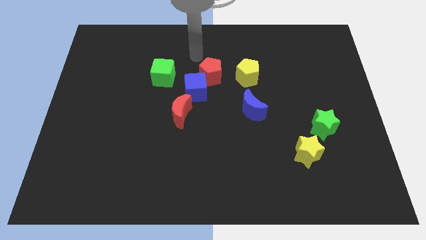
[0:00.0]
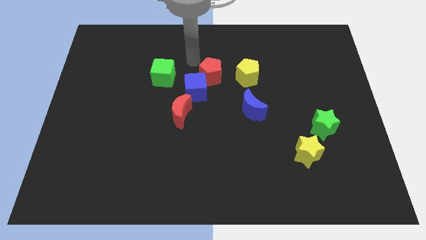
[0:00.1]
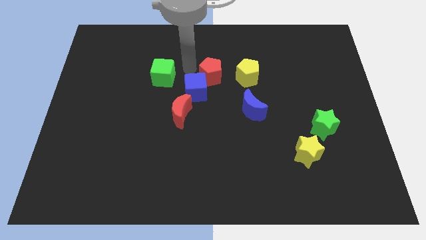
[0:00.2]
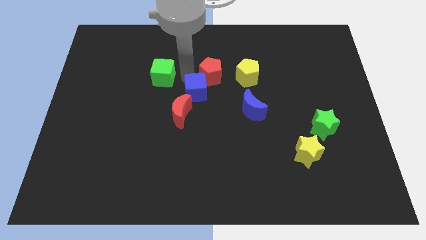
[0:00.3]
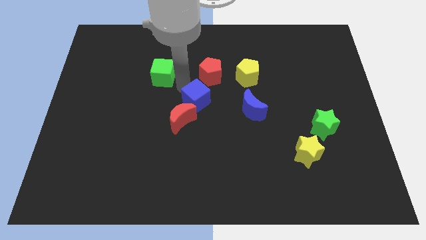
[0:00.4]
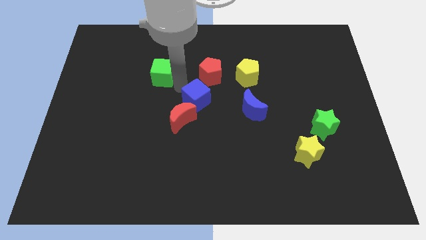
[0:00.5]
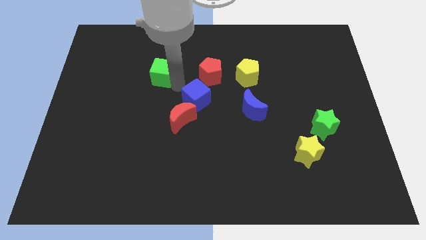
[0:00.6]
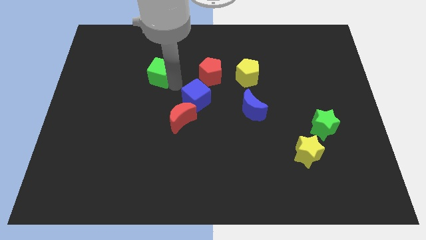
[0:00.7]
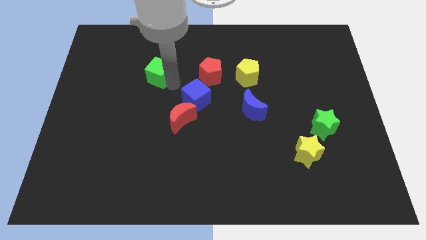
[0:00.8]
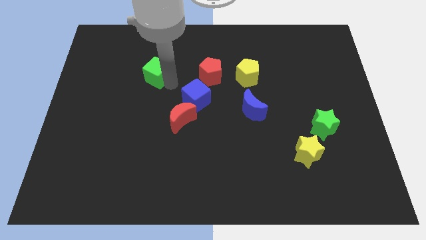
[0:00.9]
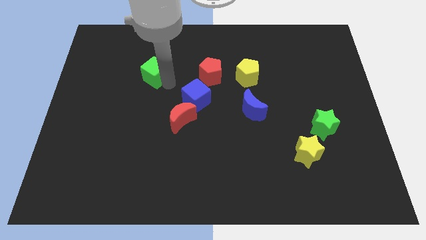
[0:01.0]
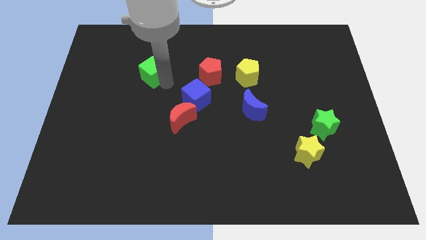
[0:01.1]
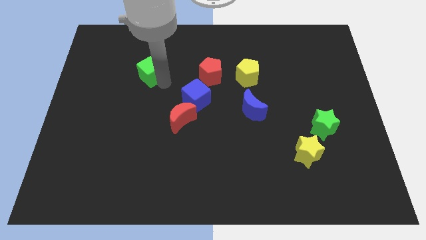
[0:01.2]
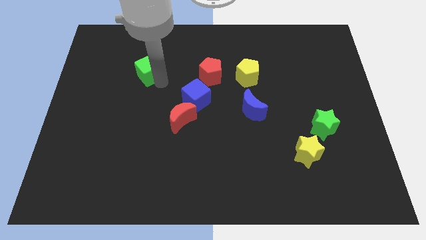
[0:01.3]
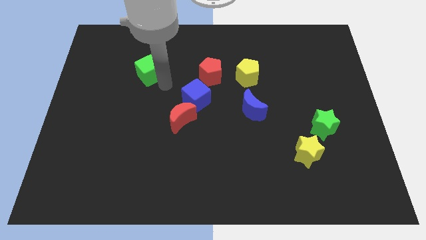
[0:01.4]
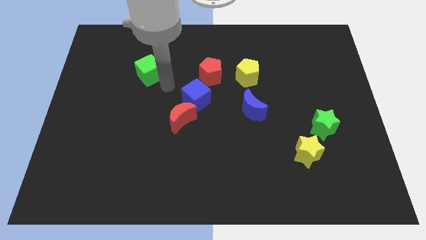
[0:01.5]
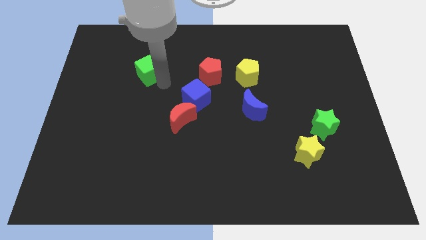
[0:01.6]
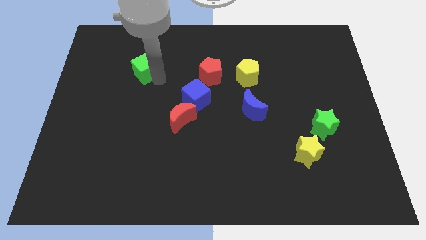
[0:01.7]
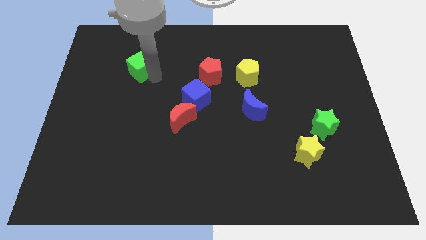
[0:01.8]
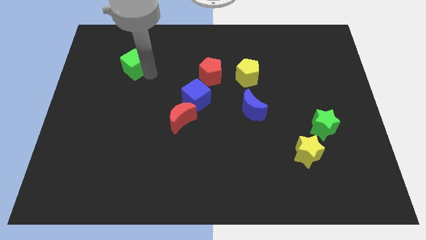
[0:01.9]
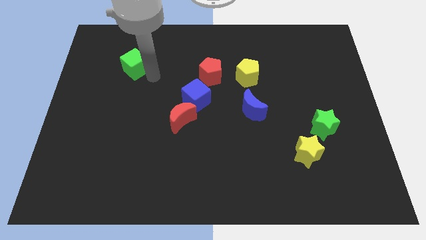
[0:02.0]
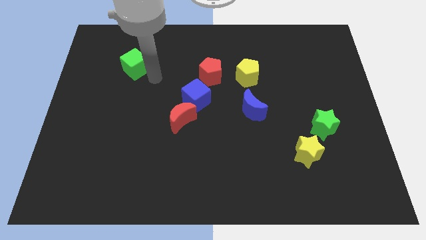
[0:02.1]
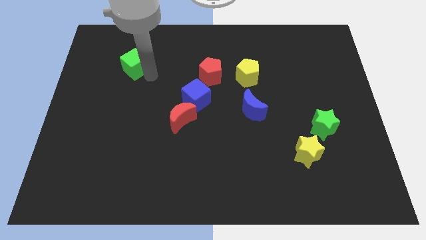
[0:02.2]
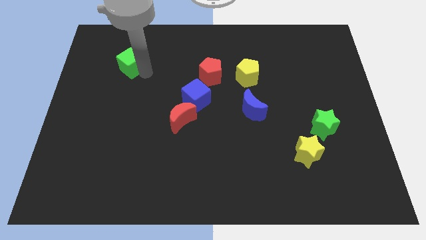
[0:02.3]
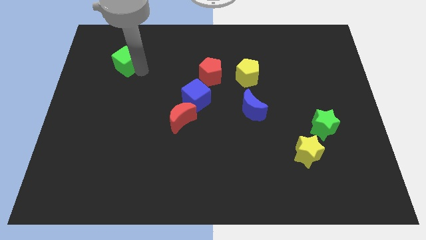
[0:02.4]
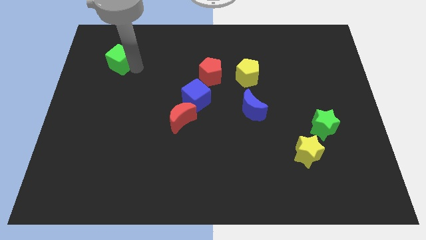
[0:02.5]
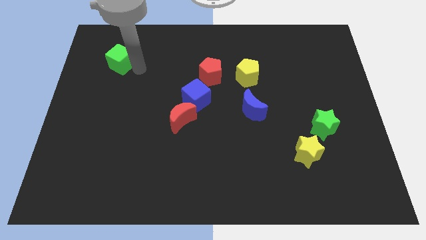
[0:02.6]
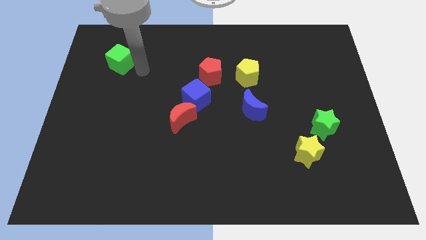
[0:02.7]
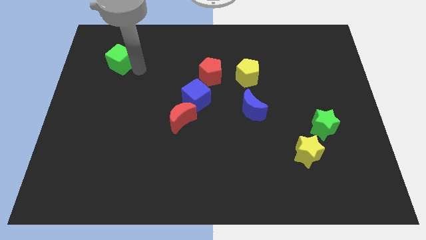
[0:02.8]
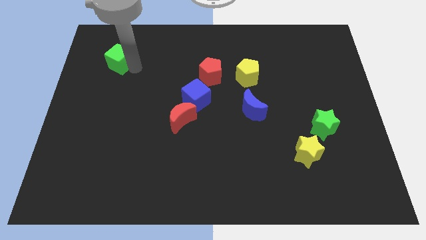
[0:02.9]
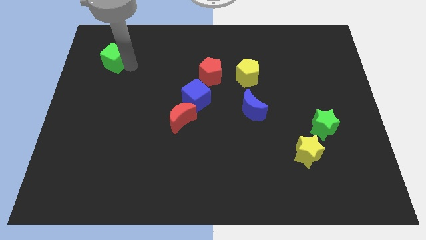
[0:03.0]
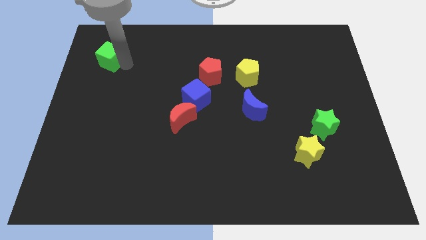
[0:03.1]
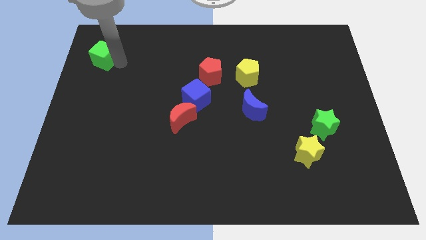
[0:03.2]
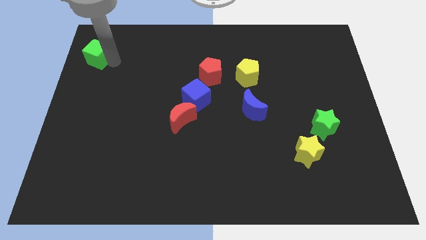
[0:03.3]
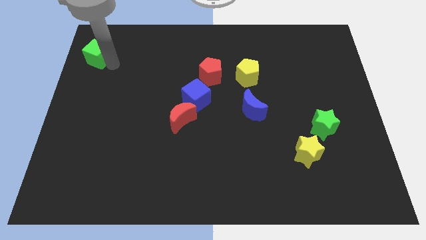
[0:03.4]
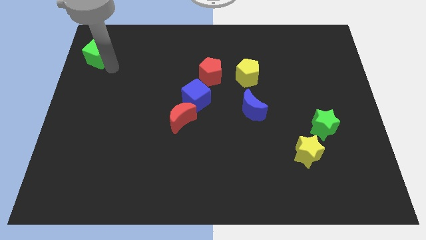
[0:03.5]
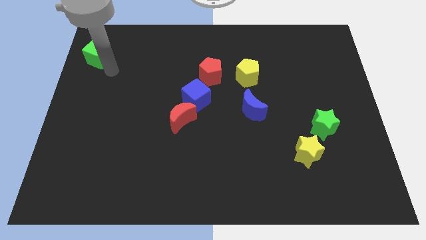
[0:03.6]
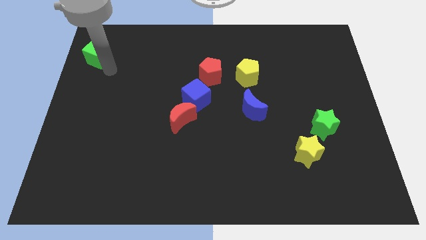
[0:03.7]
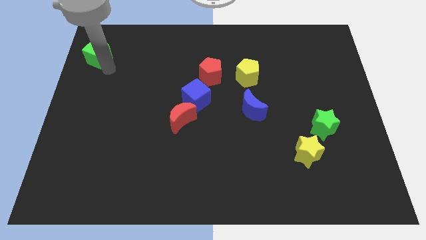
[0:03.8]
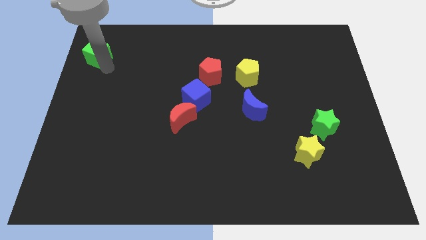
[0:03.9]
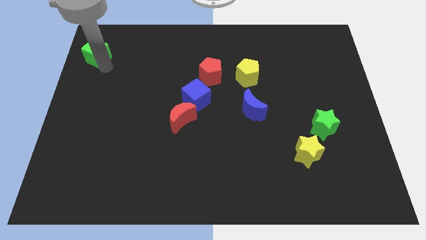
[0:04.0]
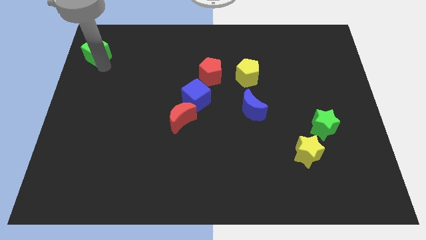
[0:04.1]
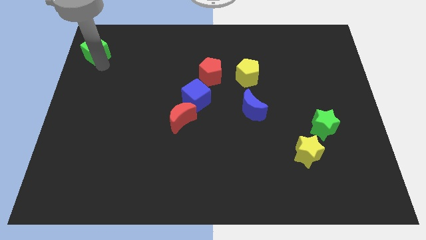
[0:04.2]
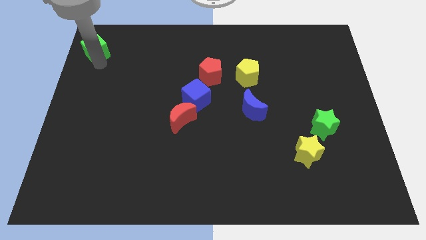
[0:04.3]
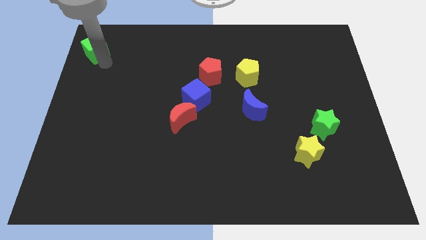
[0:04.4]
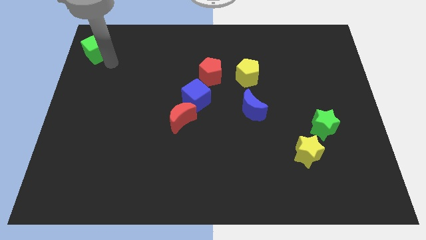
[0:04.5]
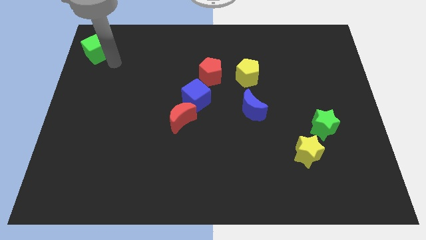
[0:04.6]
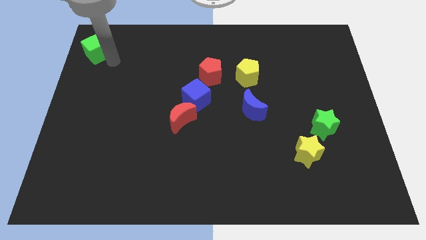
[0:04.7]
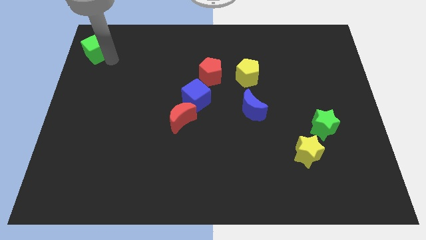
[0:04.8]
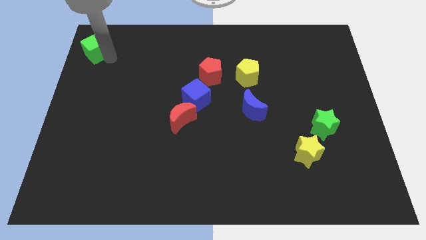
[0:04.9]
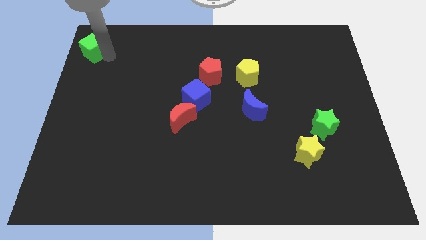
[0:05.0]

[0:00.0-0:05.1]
put the green cube to the top left corner

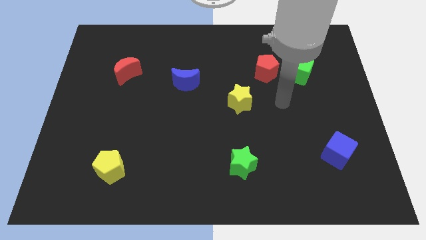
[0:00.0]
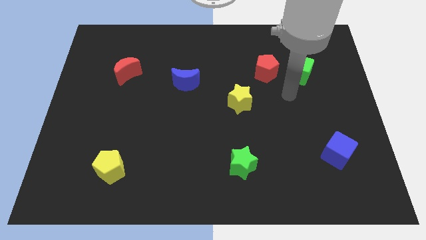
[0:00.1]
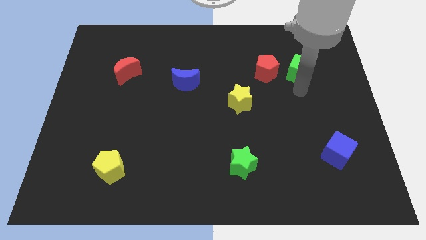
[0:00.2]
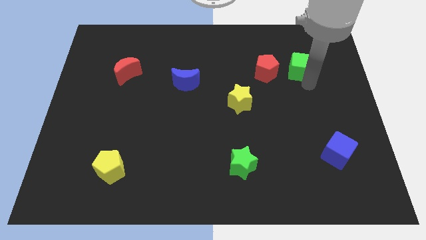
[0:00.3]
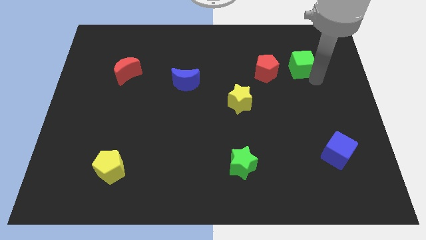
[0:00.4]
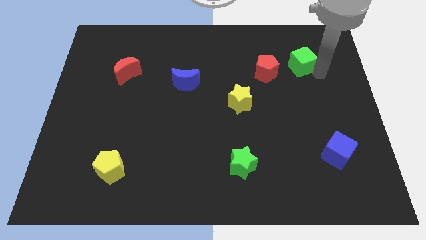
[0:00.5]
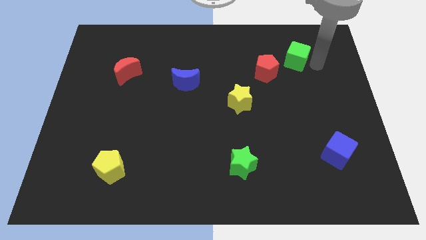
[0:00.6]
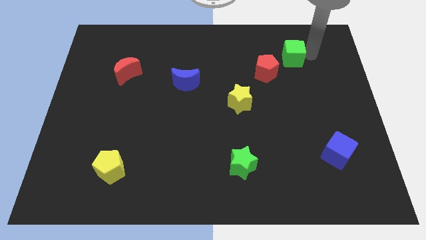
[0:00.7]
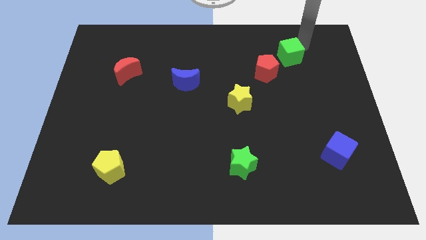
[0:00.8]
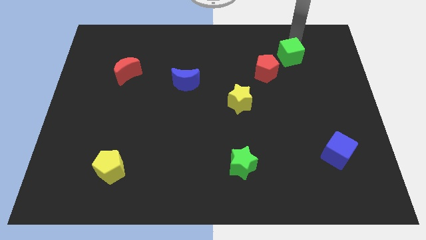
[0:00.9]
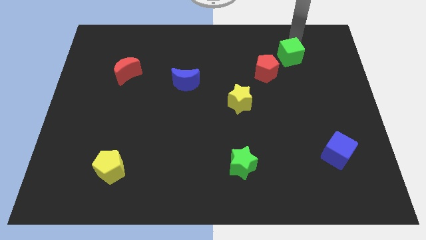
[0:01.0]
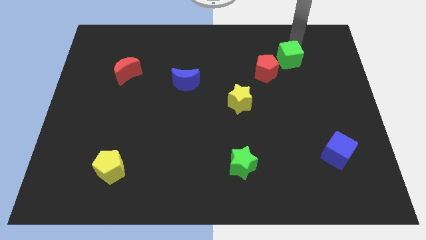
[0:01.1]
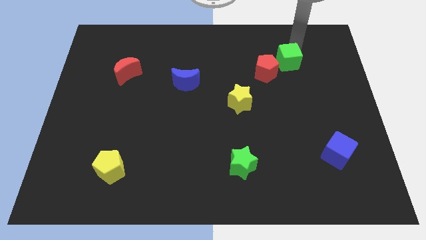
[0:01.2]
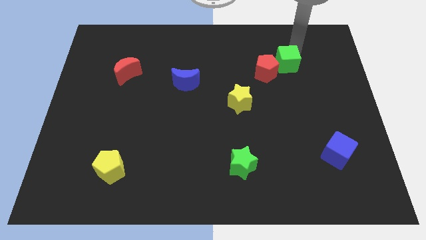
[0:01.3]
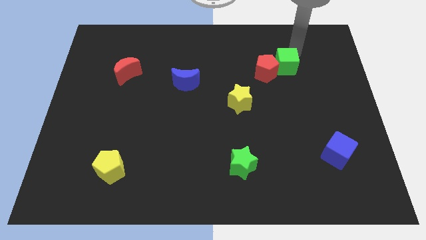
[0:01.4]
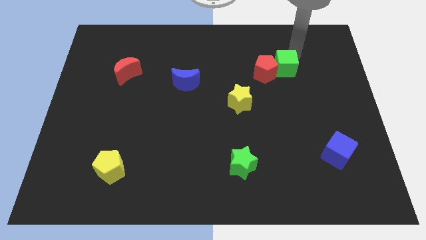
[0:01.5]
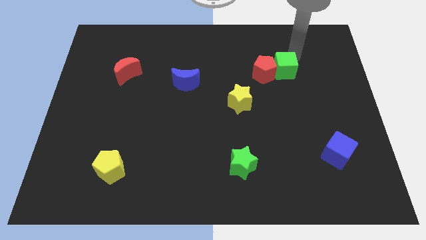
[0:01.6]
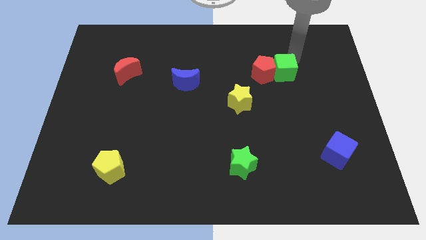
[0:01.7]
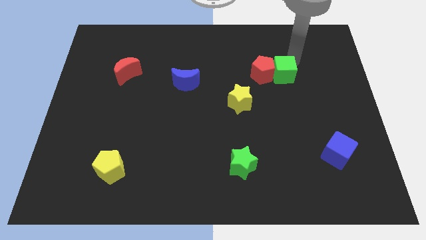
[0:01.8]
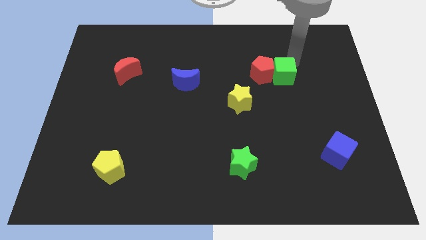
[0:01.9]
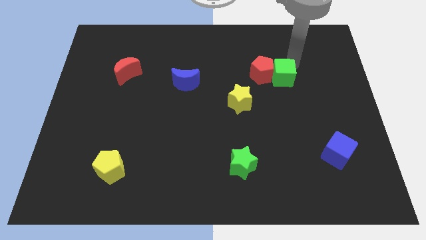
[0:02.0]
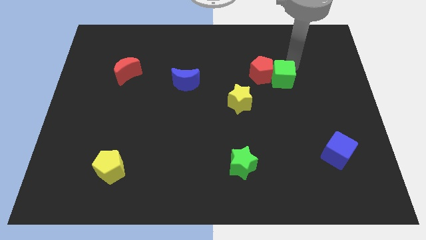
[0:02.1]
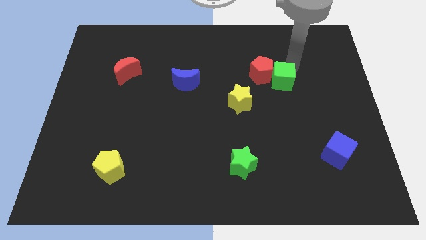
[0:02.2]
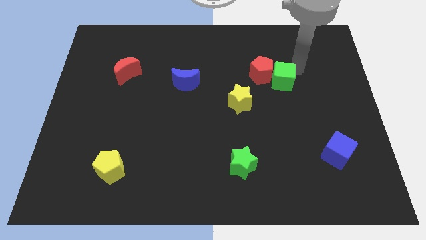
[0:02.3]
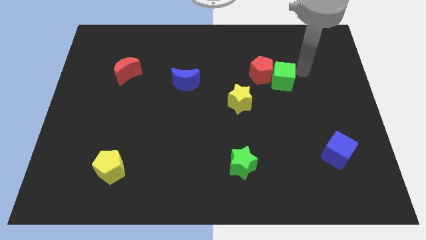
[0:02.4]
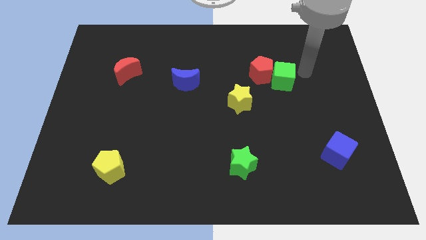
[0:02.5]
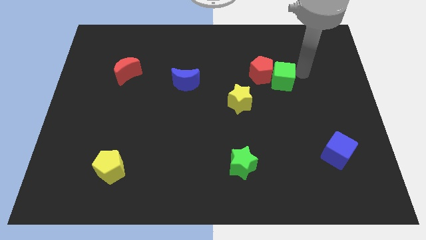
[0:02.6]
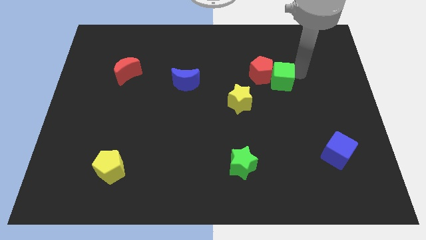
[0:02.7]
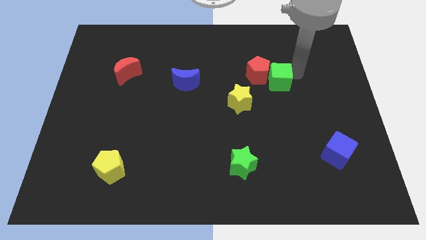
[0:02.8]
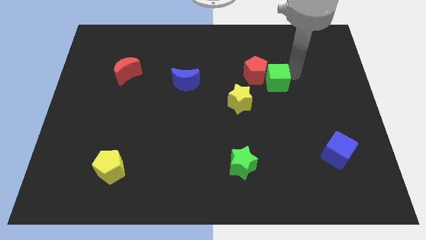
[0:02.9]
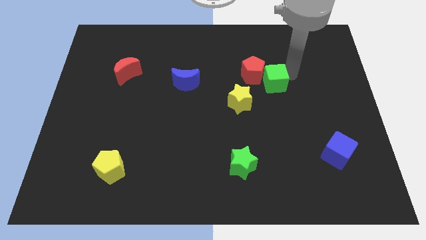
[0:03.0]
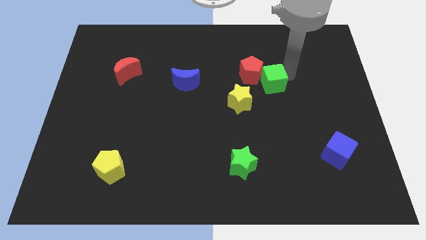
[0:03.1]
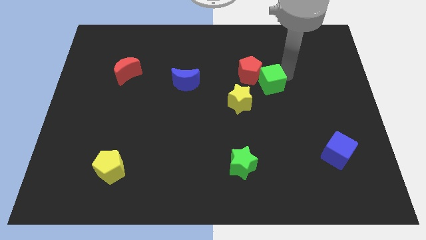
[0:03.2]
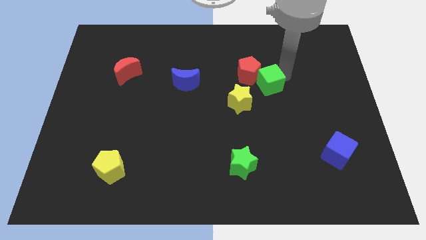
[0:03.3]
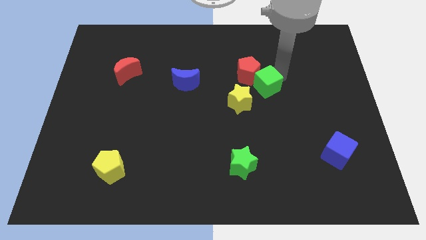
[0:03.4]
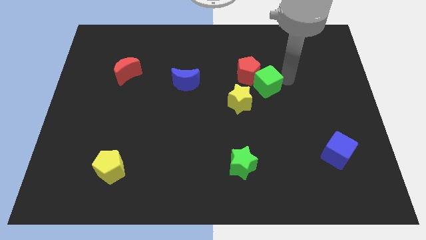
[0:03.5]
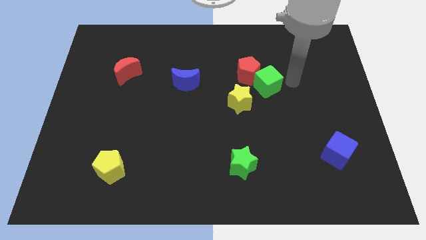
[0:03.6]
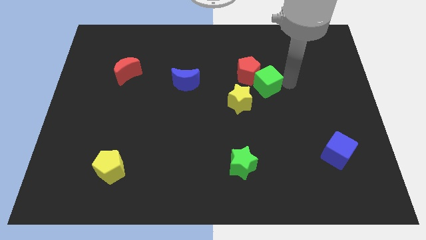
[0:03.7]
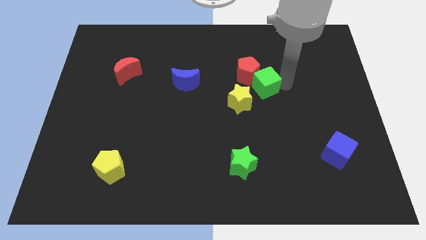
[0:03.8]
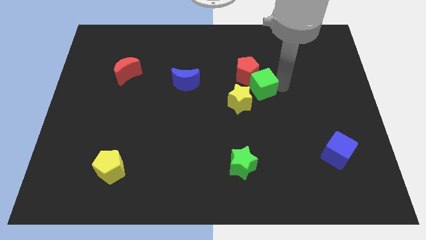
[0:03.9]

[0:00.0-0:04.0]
put the green cube to the center of the board
